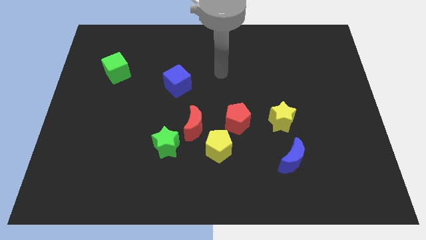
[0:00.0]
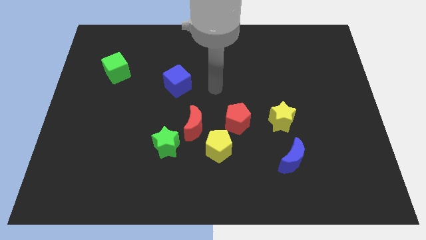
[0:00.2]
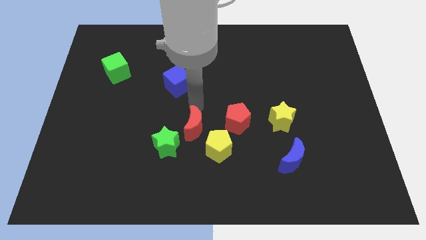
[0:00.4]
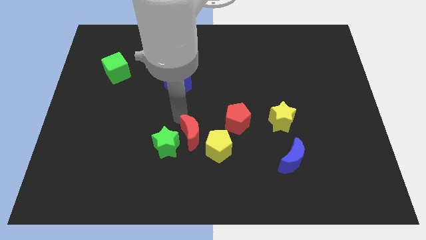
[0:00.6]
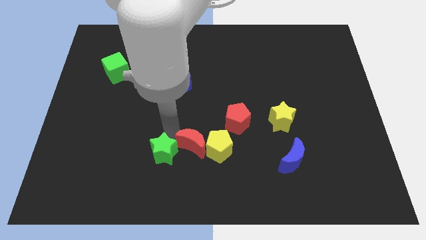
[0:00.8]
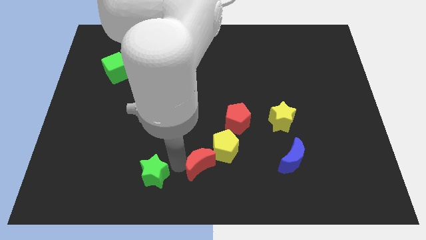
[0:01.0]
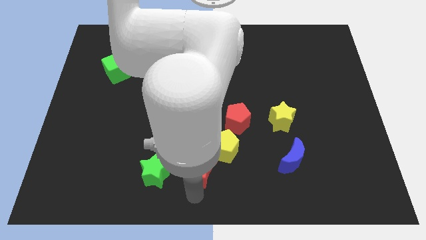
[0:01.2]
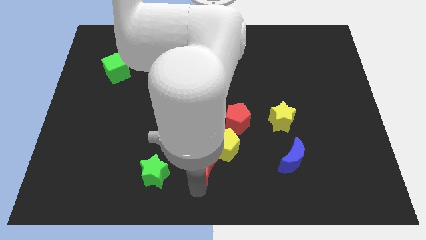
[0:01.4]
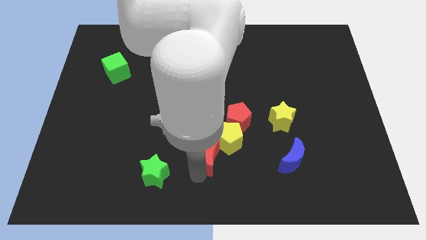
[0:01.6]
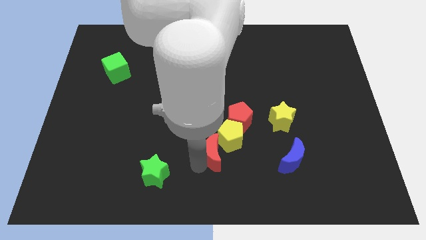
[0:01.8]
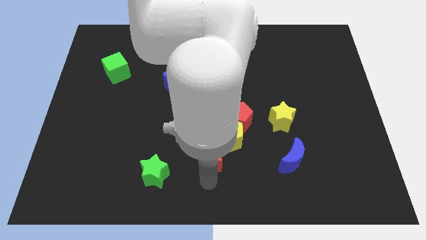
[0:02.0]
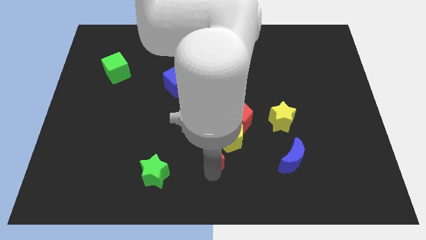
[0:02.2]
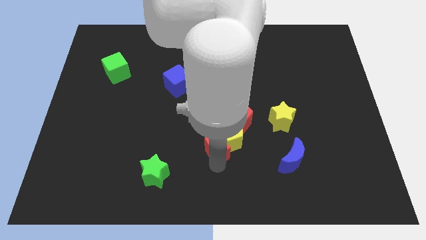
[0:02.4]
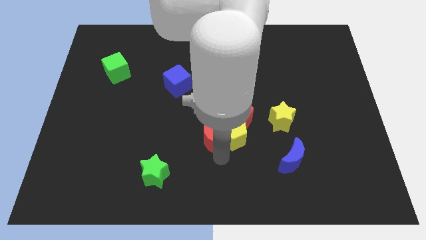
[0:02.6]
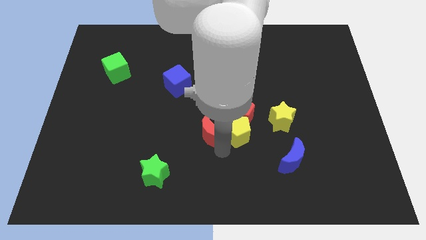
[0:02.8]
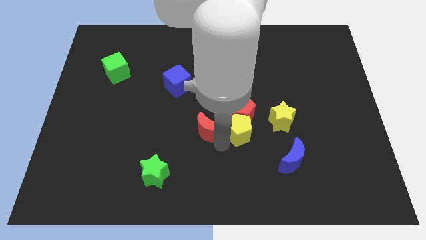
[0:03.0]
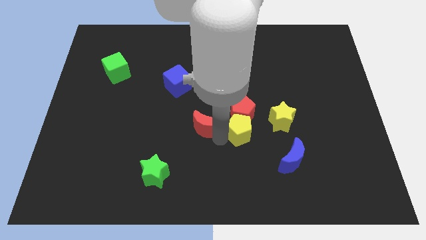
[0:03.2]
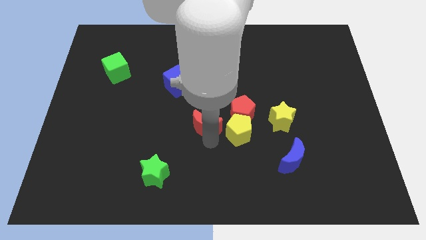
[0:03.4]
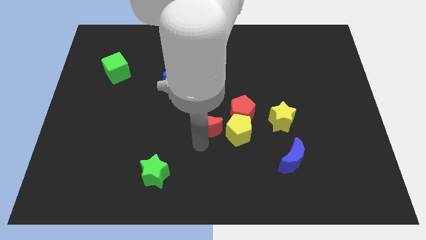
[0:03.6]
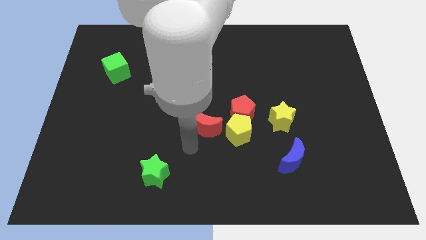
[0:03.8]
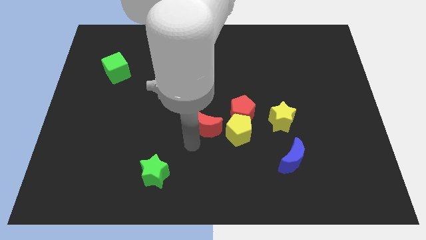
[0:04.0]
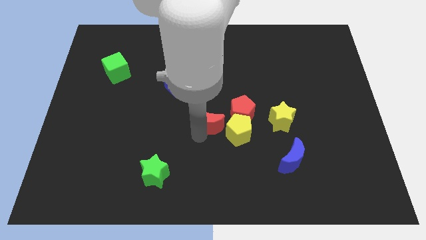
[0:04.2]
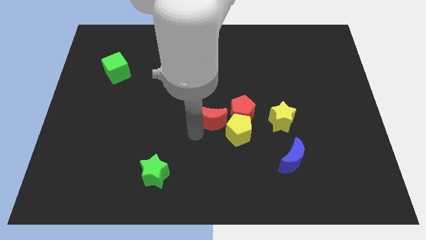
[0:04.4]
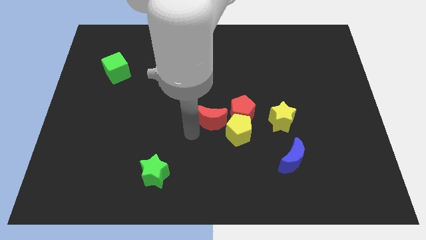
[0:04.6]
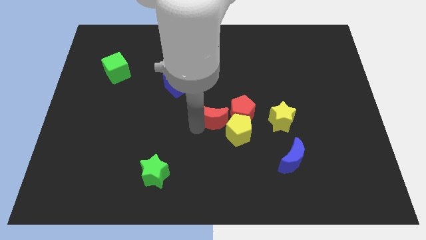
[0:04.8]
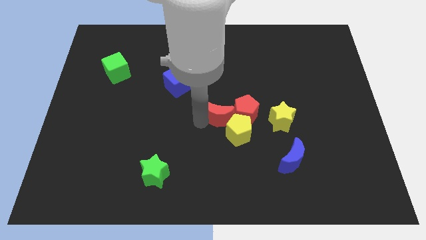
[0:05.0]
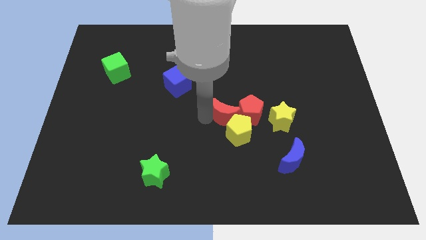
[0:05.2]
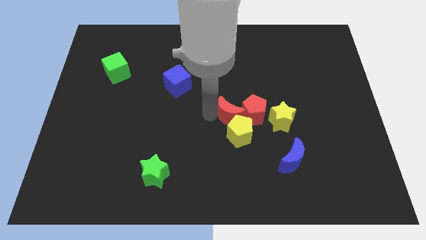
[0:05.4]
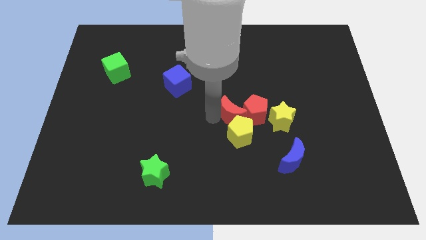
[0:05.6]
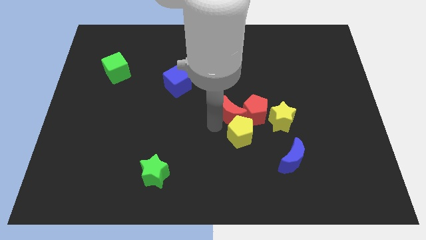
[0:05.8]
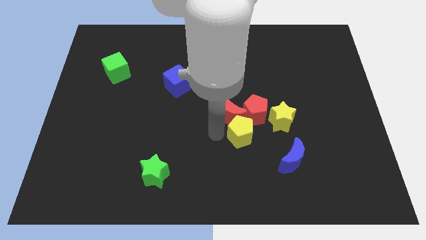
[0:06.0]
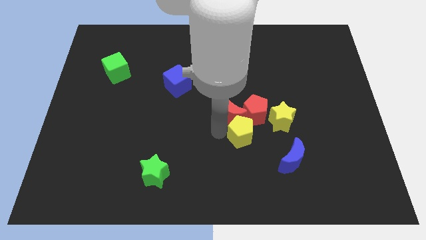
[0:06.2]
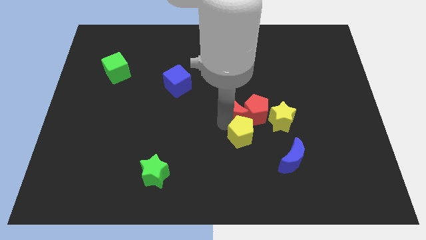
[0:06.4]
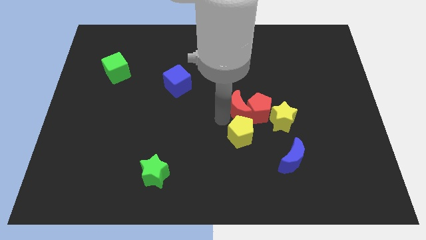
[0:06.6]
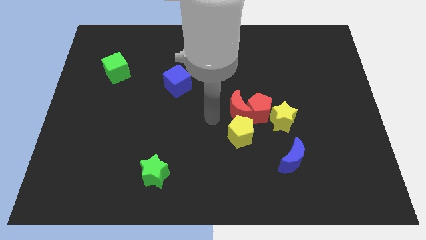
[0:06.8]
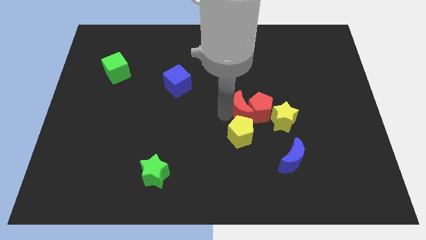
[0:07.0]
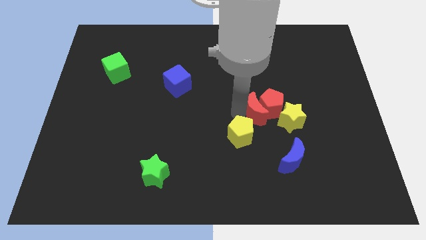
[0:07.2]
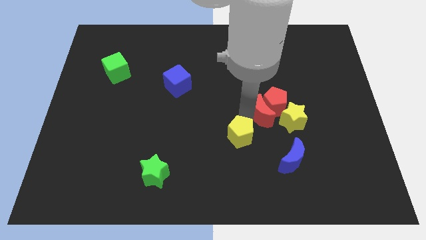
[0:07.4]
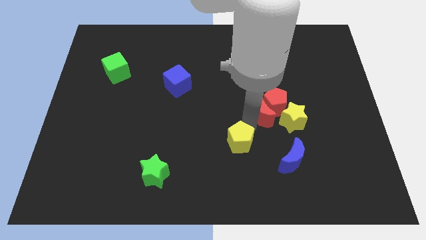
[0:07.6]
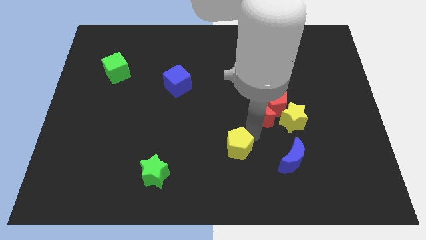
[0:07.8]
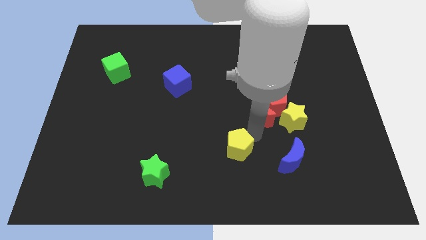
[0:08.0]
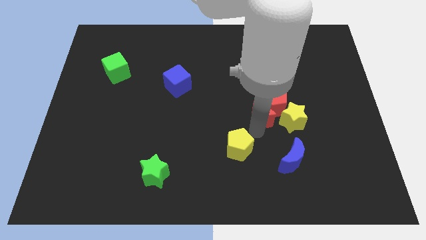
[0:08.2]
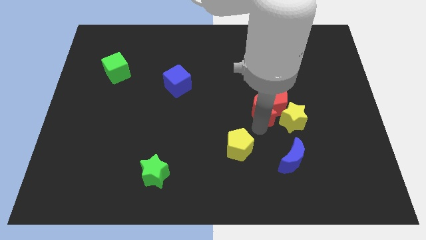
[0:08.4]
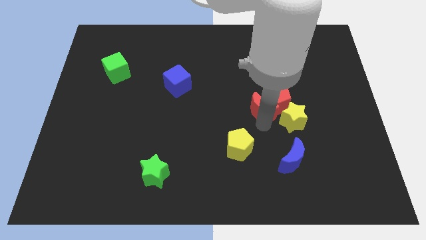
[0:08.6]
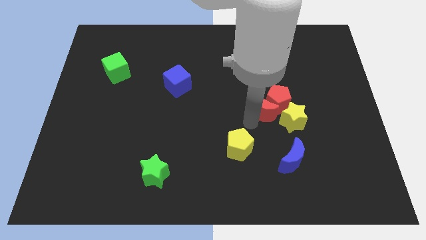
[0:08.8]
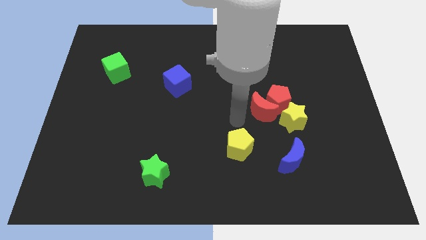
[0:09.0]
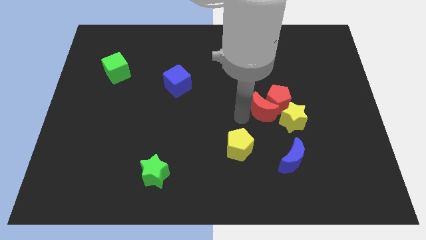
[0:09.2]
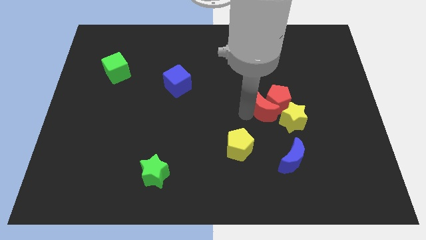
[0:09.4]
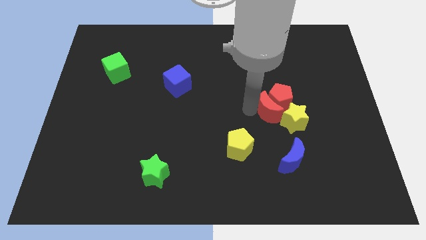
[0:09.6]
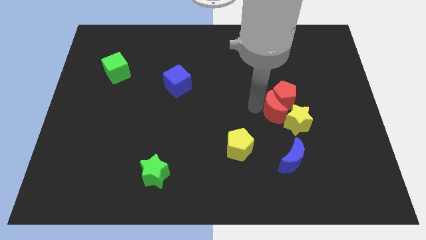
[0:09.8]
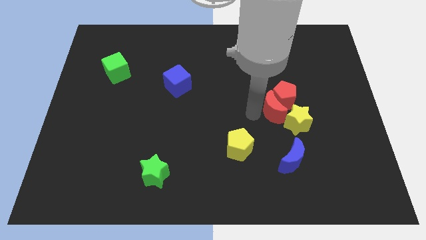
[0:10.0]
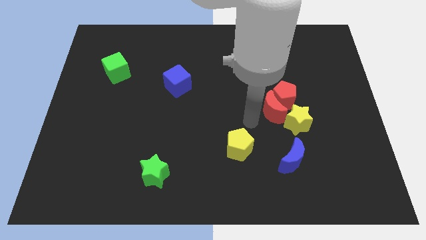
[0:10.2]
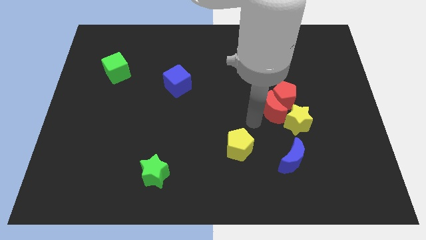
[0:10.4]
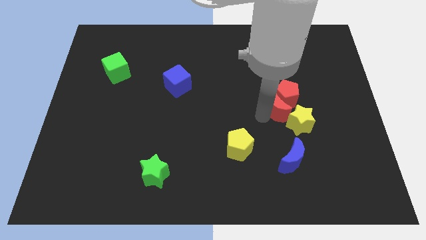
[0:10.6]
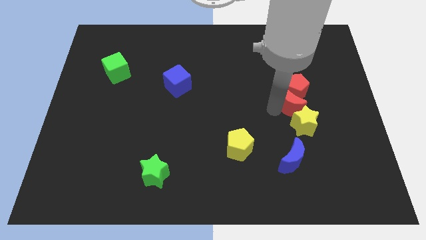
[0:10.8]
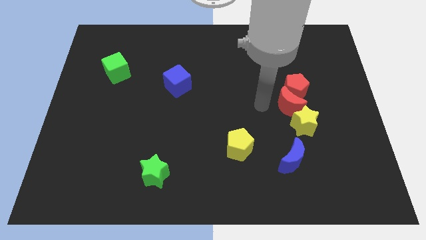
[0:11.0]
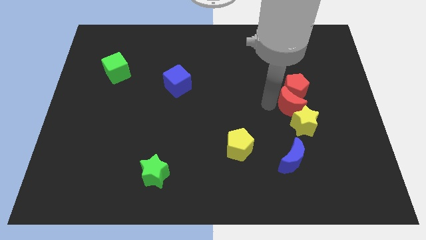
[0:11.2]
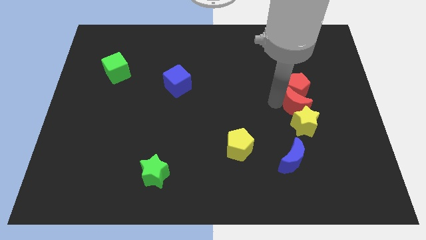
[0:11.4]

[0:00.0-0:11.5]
slide the red moon diagonally up and to the right of the yellow star

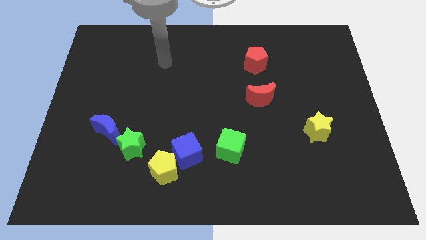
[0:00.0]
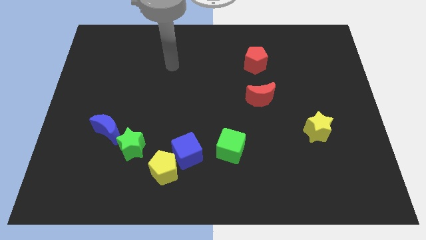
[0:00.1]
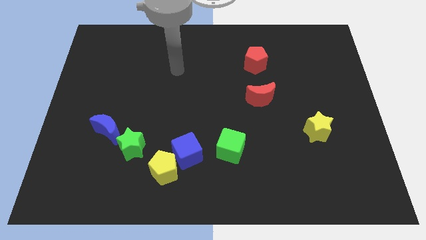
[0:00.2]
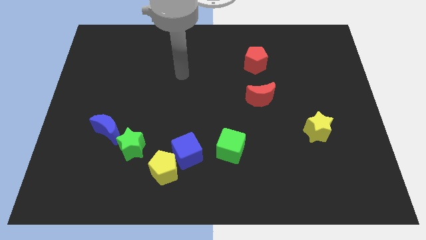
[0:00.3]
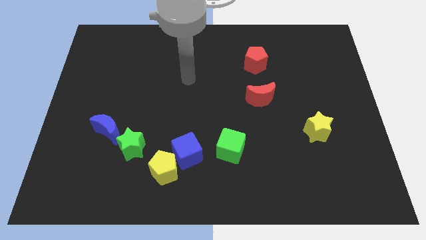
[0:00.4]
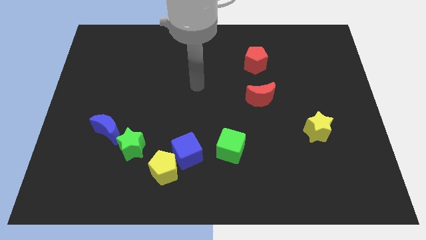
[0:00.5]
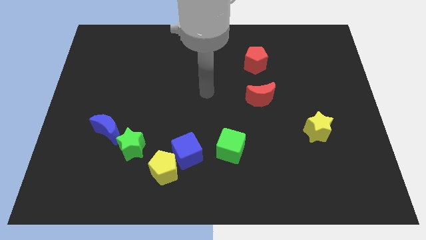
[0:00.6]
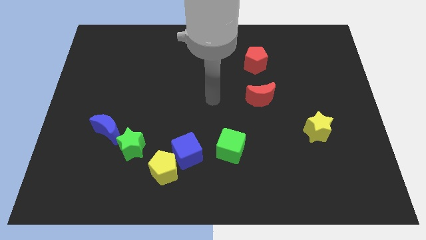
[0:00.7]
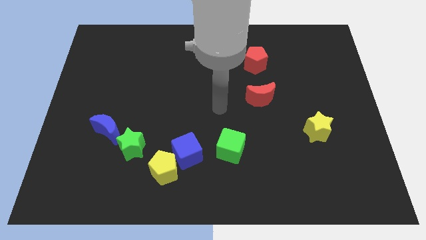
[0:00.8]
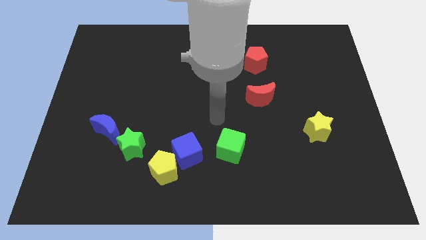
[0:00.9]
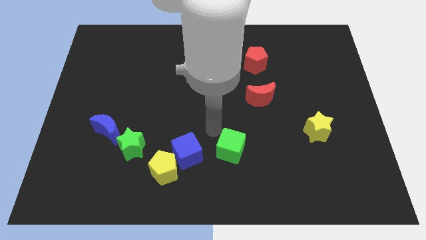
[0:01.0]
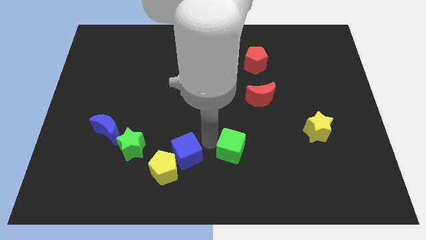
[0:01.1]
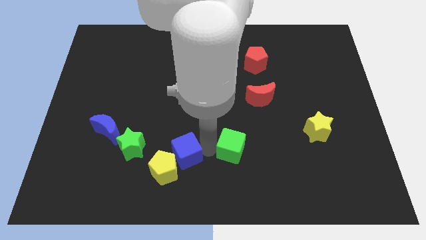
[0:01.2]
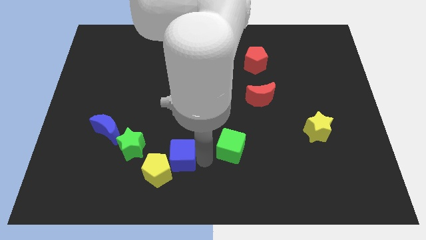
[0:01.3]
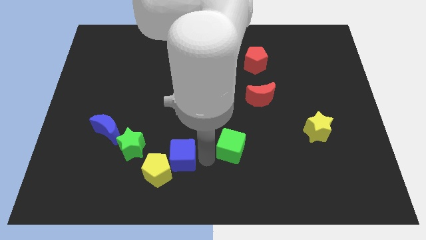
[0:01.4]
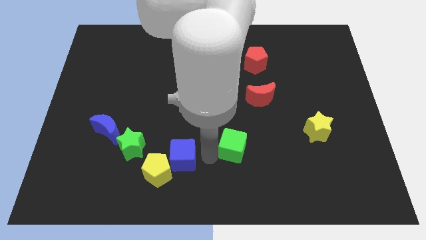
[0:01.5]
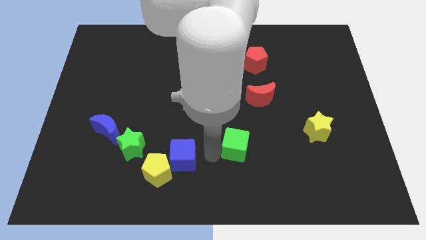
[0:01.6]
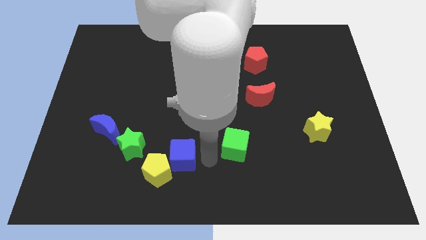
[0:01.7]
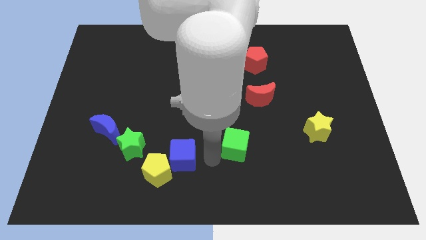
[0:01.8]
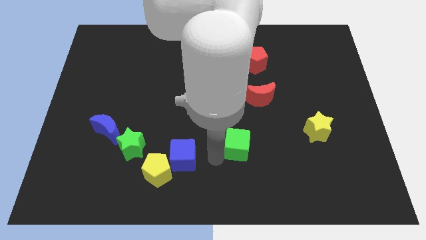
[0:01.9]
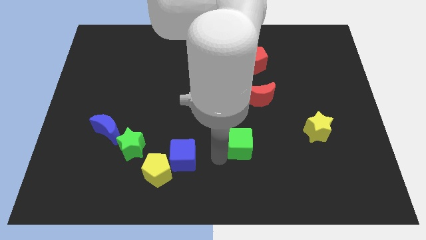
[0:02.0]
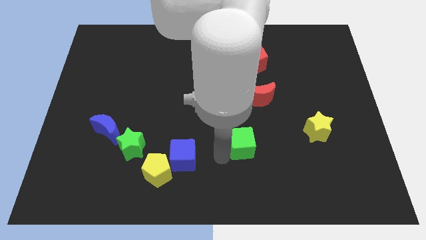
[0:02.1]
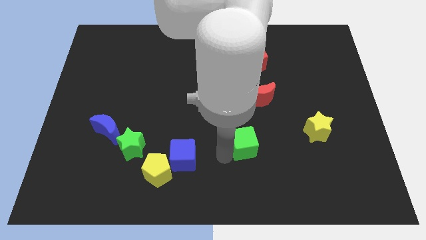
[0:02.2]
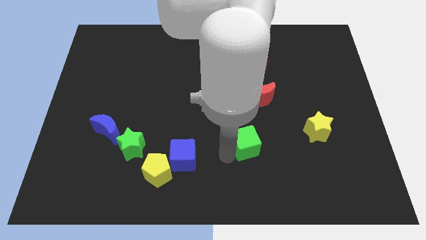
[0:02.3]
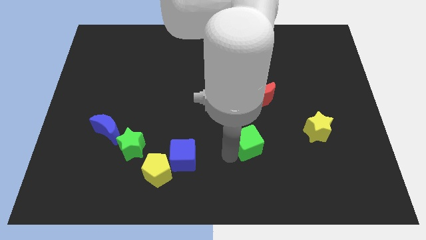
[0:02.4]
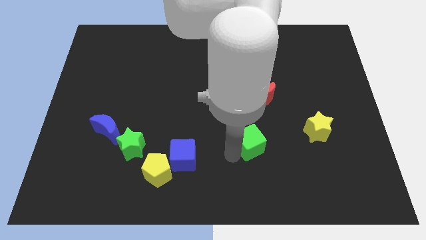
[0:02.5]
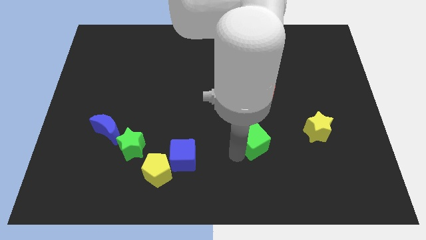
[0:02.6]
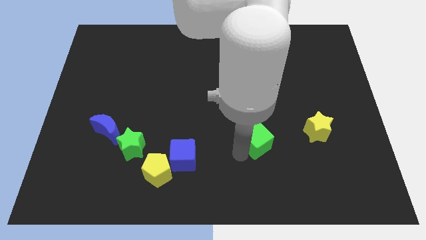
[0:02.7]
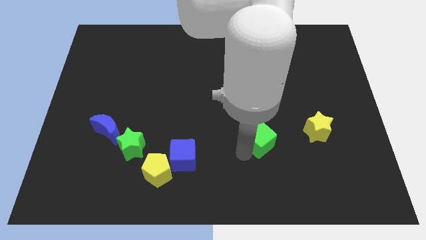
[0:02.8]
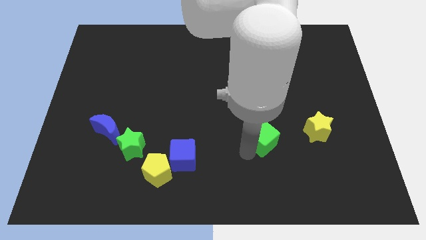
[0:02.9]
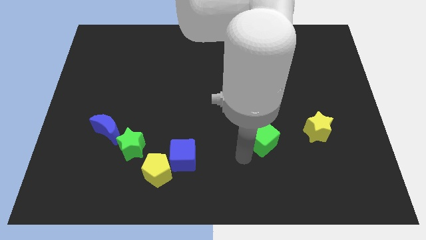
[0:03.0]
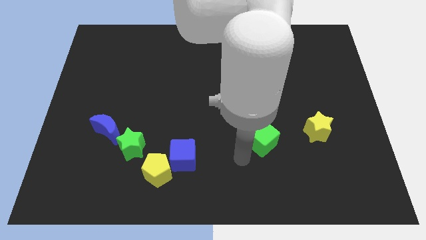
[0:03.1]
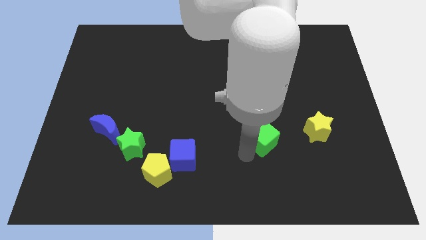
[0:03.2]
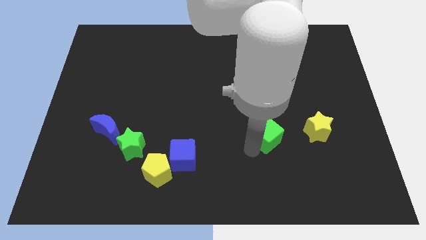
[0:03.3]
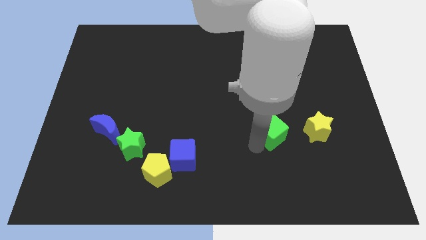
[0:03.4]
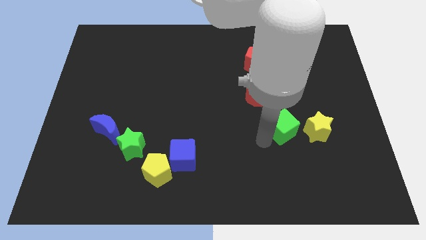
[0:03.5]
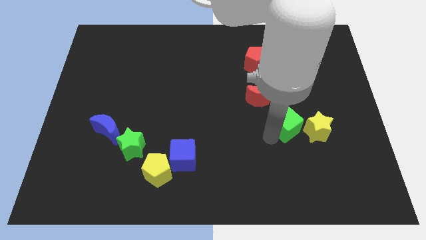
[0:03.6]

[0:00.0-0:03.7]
move the green cube to the top left side of the yellow star
